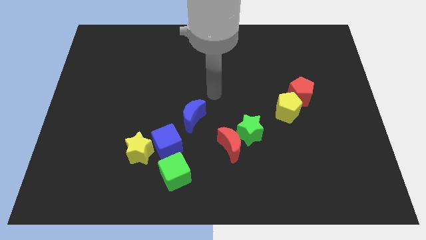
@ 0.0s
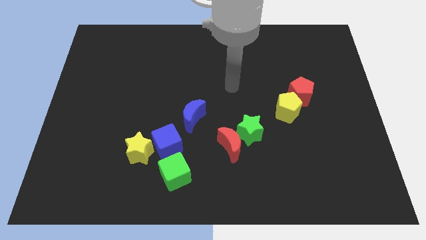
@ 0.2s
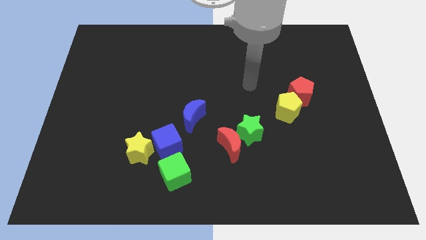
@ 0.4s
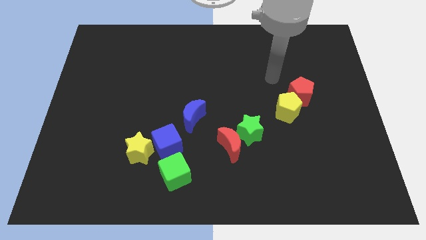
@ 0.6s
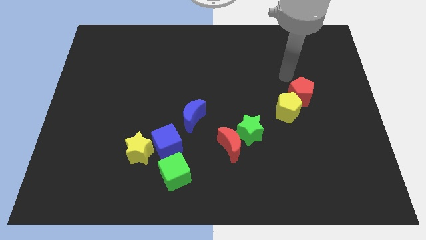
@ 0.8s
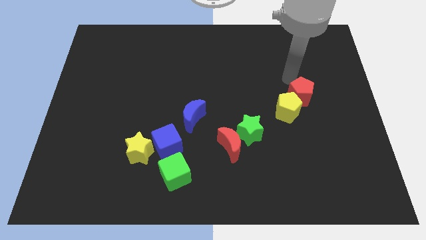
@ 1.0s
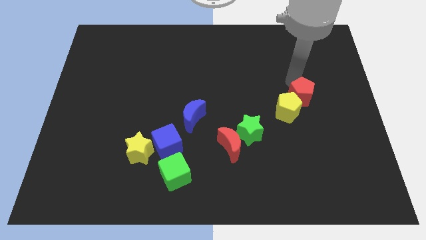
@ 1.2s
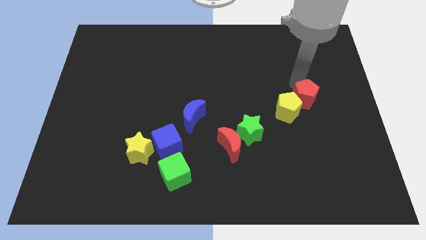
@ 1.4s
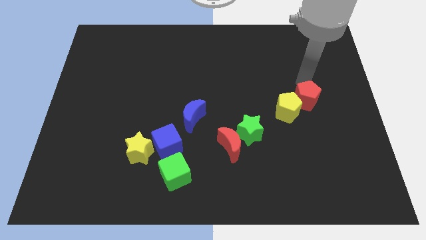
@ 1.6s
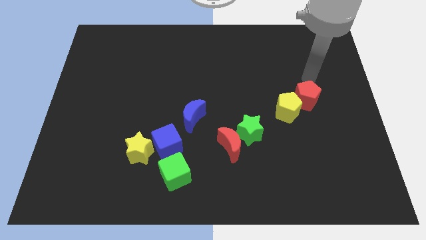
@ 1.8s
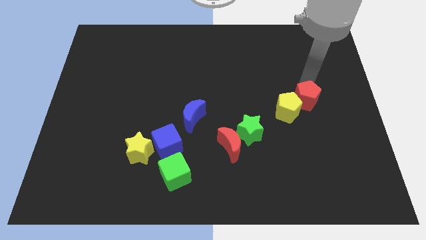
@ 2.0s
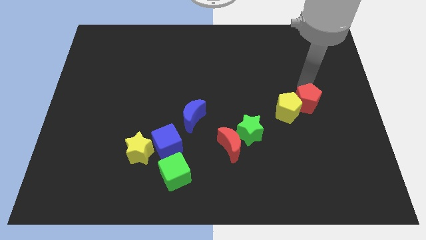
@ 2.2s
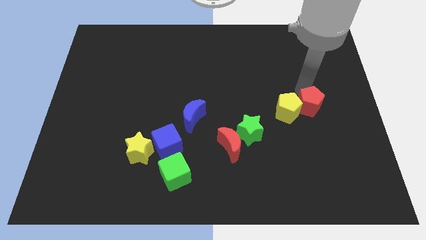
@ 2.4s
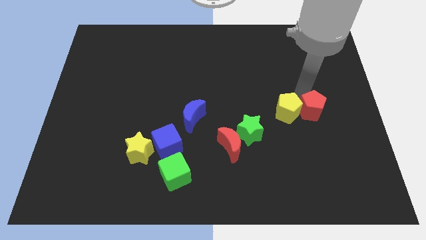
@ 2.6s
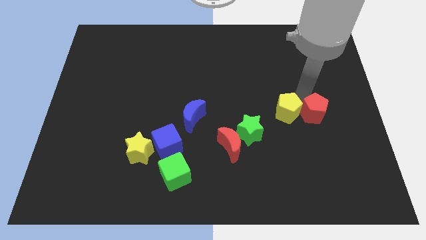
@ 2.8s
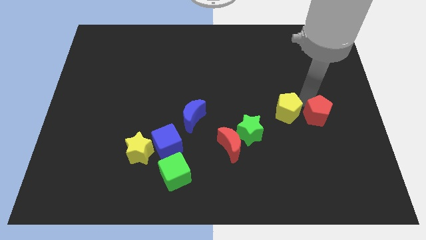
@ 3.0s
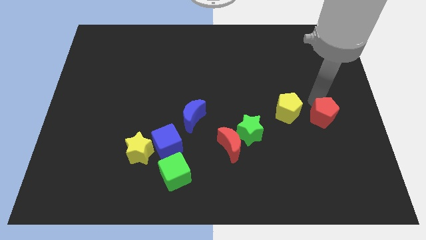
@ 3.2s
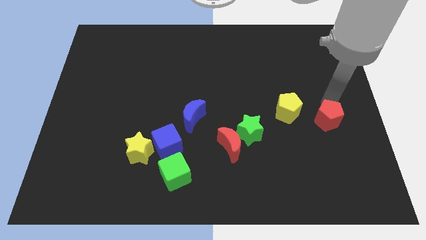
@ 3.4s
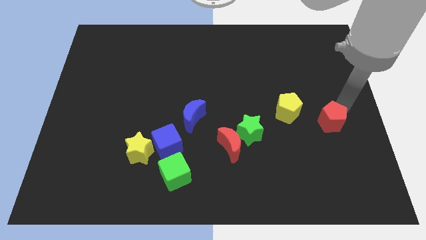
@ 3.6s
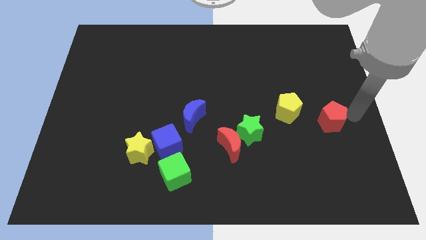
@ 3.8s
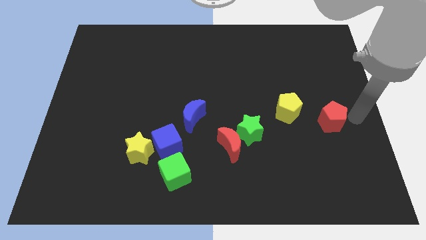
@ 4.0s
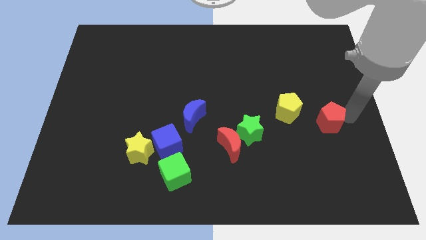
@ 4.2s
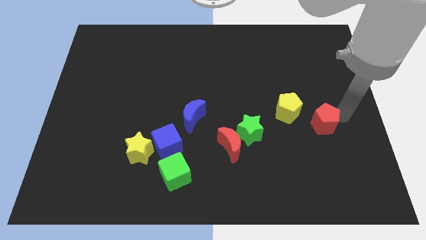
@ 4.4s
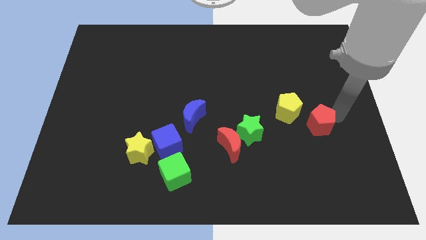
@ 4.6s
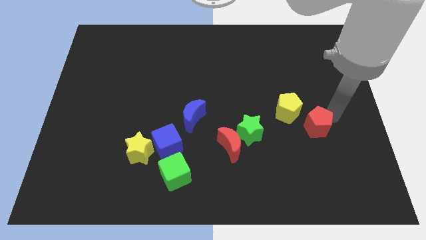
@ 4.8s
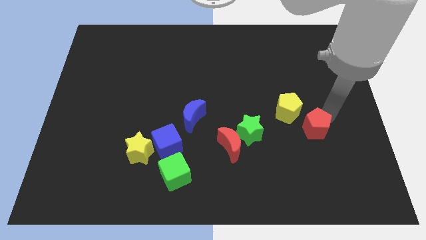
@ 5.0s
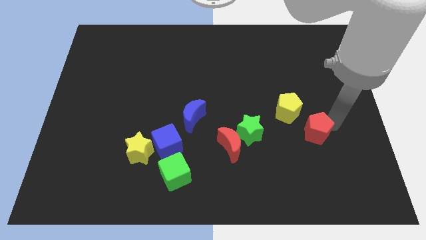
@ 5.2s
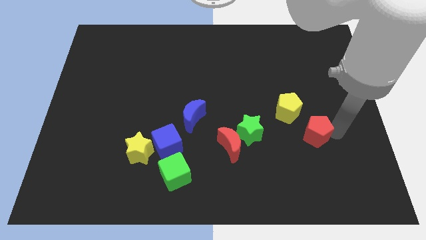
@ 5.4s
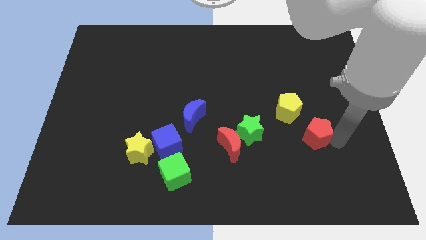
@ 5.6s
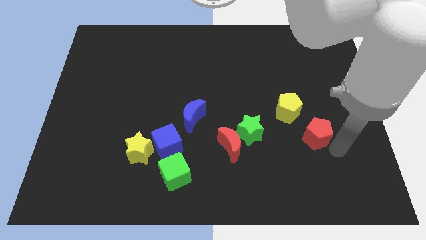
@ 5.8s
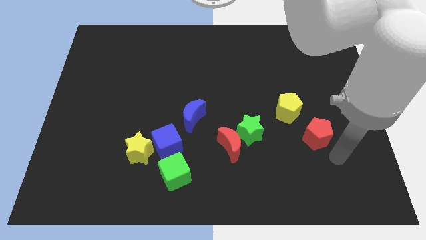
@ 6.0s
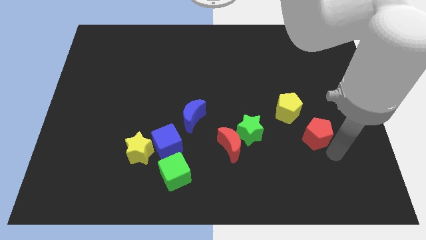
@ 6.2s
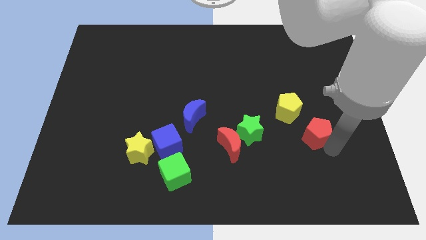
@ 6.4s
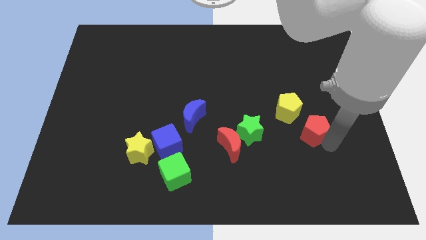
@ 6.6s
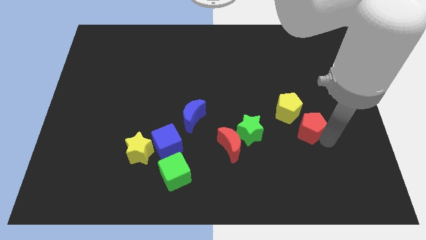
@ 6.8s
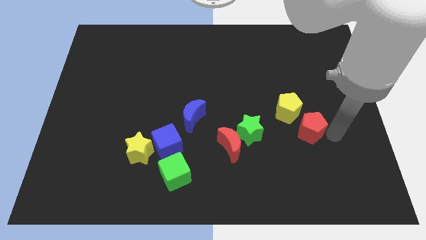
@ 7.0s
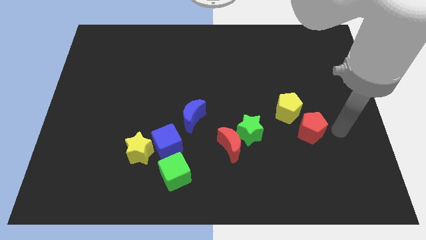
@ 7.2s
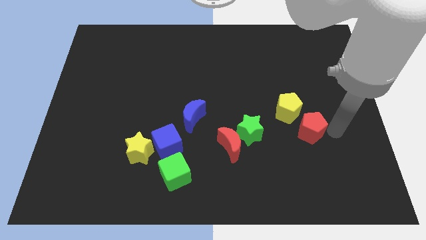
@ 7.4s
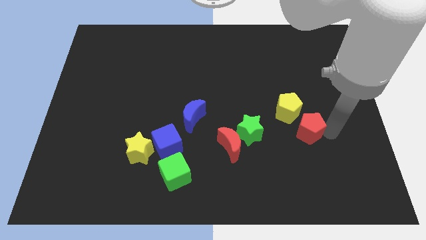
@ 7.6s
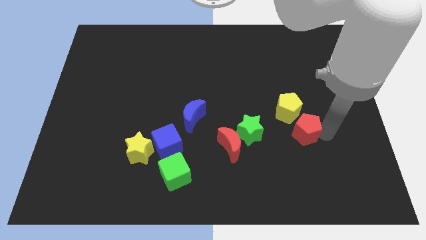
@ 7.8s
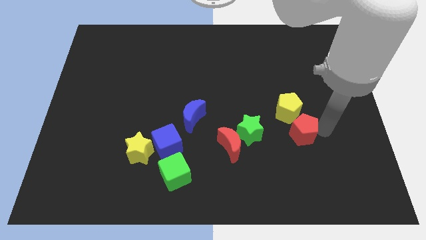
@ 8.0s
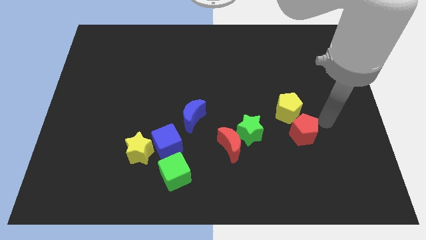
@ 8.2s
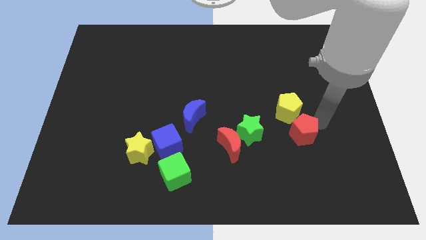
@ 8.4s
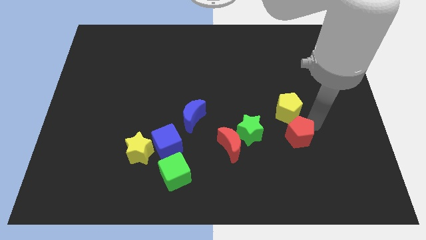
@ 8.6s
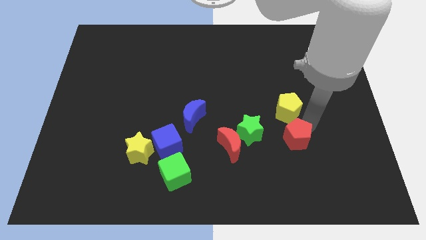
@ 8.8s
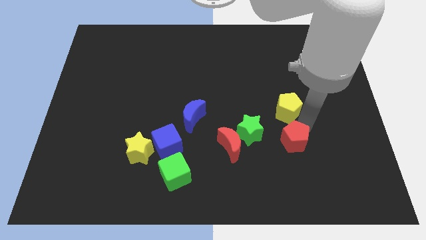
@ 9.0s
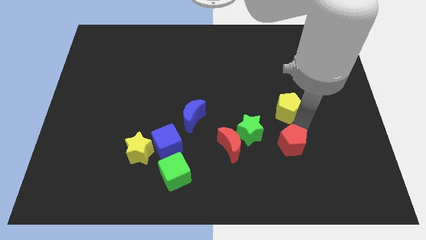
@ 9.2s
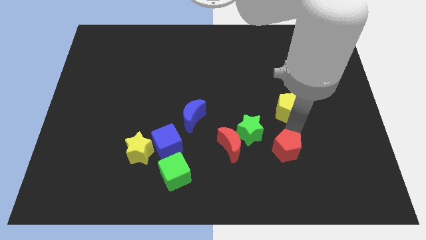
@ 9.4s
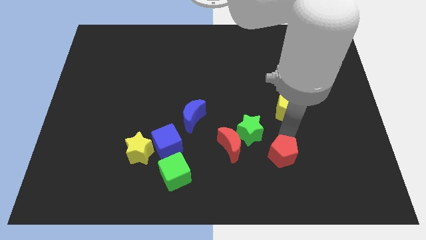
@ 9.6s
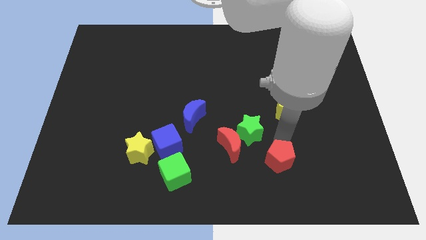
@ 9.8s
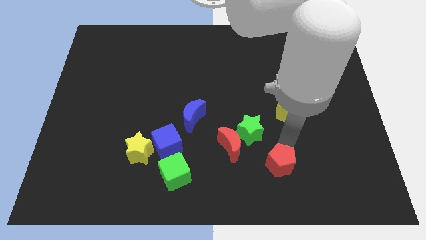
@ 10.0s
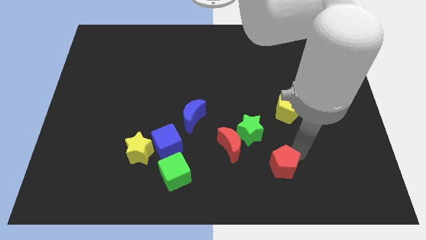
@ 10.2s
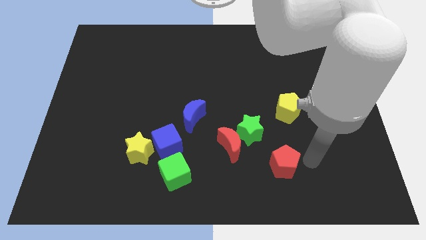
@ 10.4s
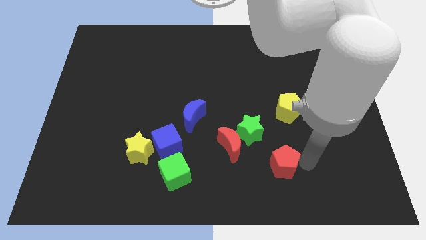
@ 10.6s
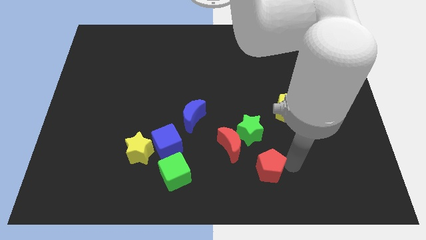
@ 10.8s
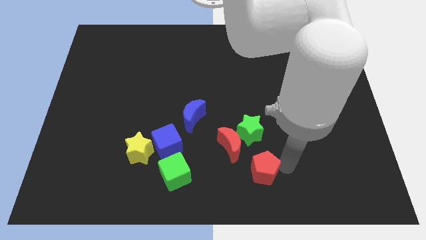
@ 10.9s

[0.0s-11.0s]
push the red pentagon to the bottom side
